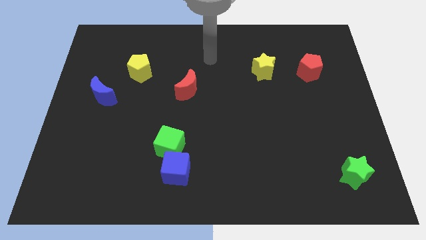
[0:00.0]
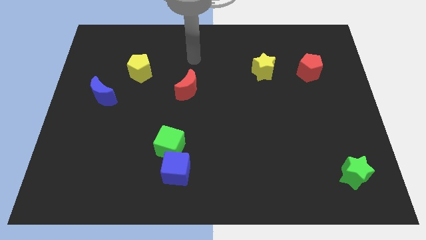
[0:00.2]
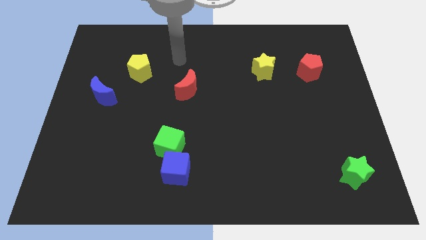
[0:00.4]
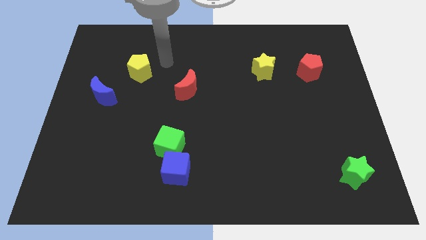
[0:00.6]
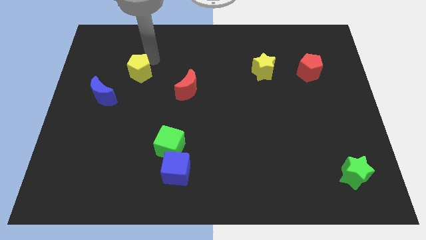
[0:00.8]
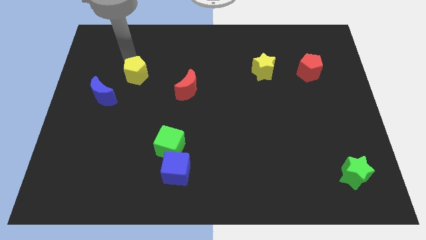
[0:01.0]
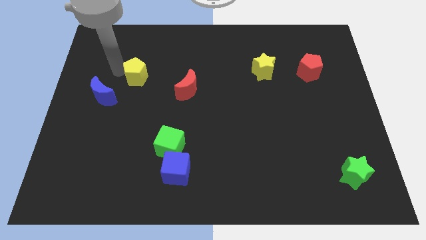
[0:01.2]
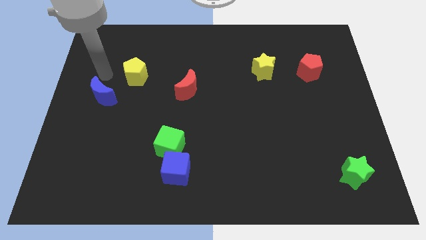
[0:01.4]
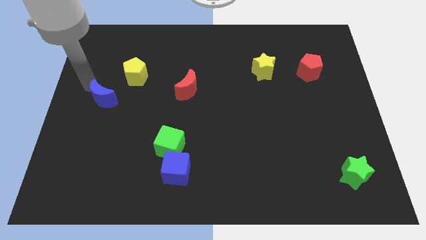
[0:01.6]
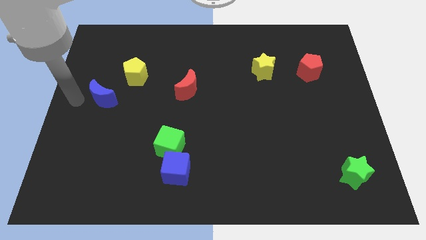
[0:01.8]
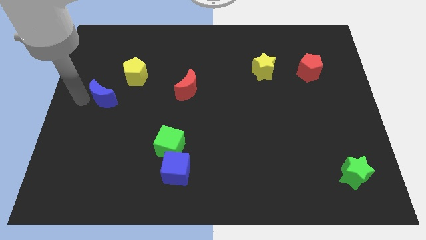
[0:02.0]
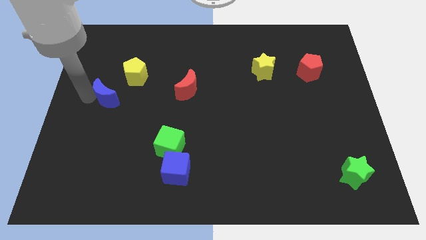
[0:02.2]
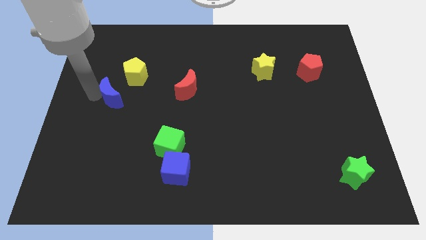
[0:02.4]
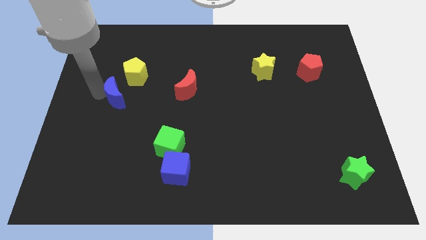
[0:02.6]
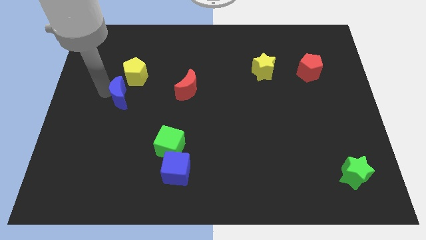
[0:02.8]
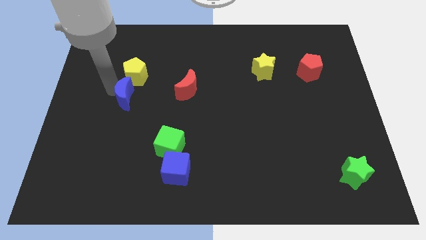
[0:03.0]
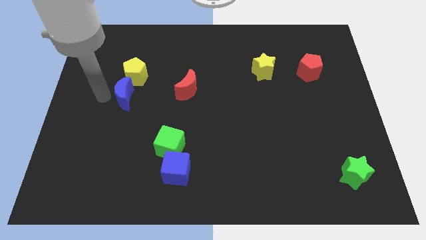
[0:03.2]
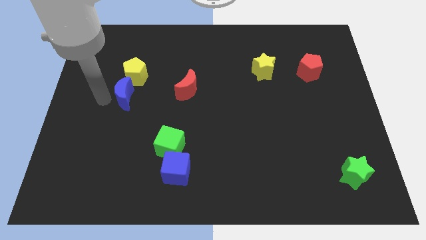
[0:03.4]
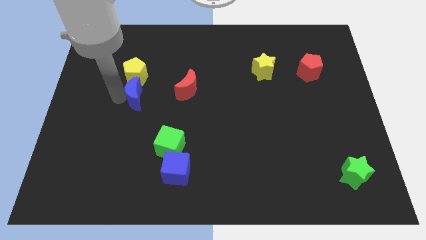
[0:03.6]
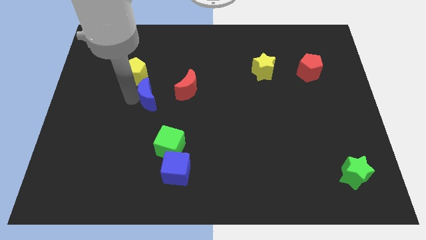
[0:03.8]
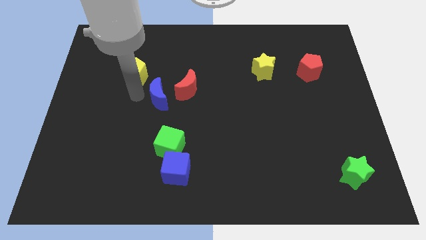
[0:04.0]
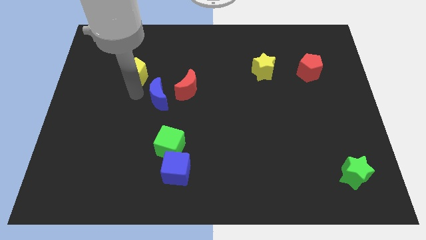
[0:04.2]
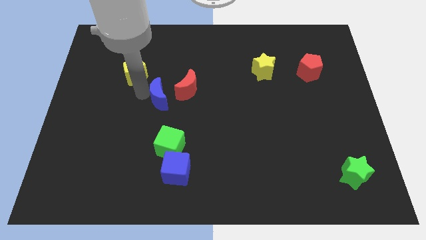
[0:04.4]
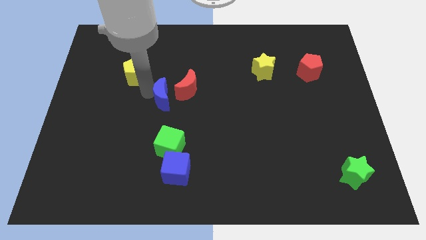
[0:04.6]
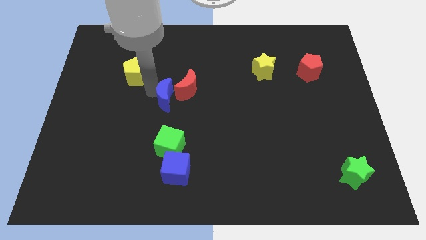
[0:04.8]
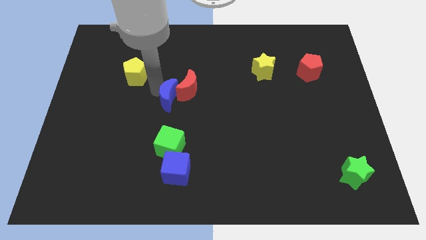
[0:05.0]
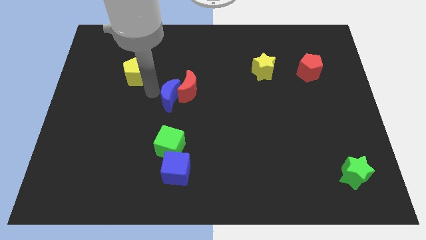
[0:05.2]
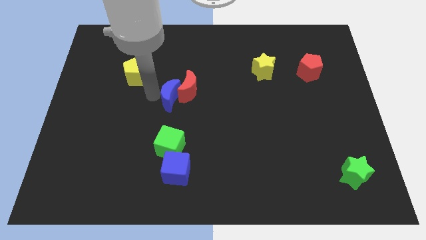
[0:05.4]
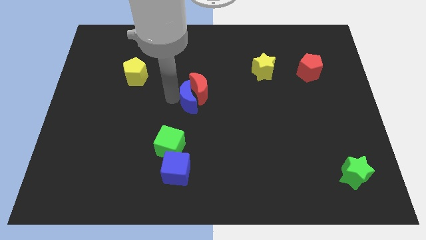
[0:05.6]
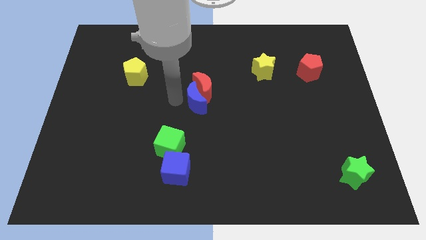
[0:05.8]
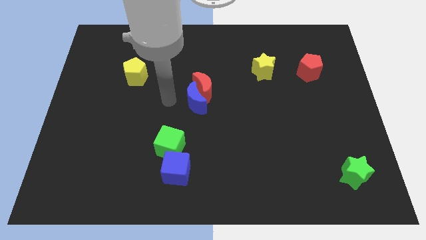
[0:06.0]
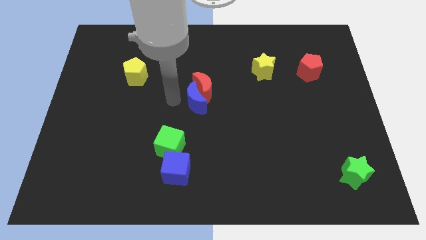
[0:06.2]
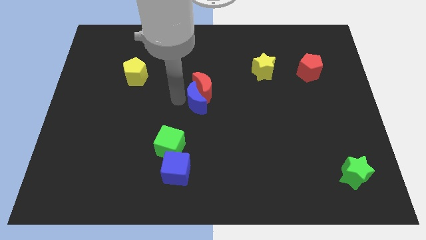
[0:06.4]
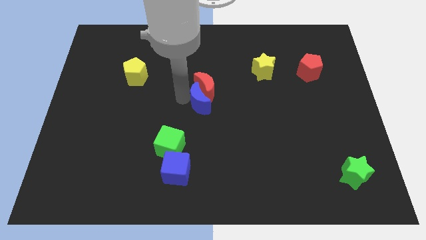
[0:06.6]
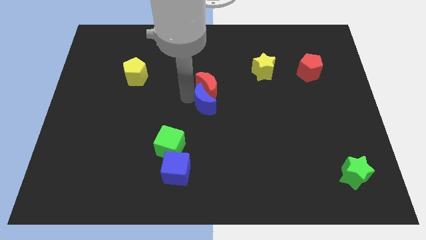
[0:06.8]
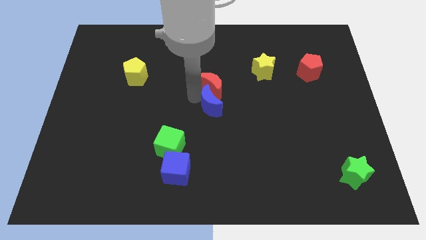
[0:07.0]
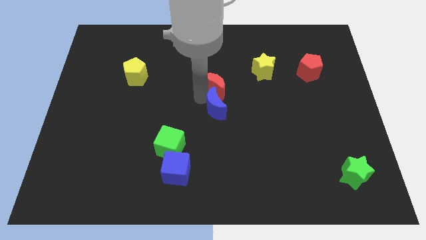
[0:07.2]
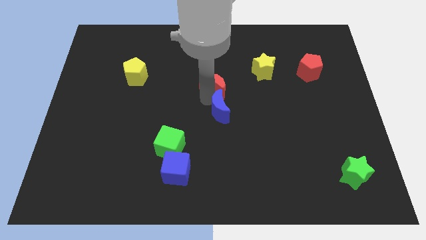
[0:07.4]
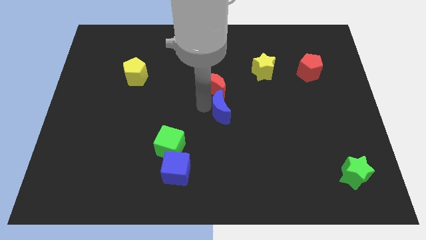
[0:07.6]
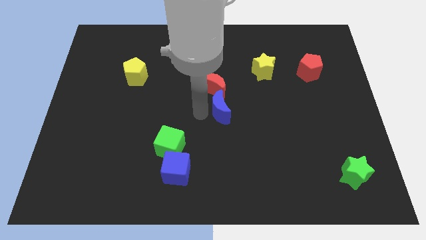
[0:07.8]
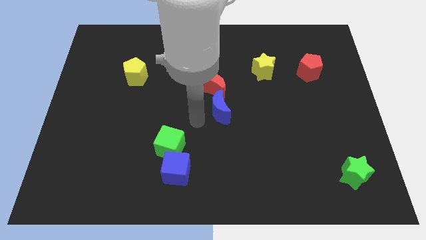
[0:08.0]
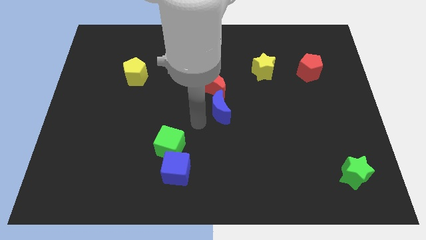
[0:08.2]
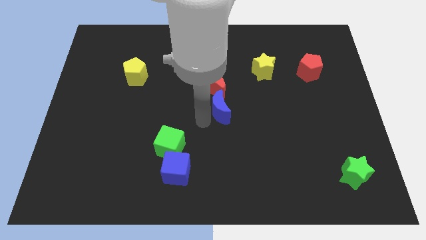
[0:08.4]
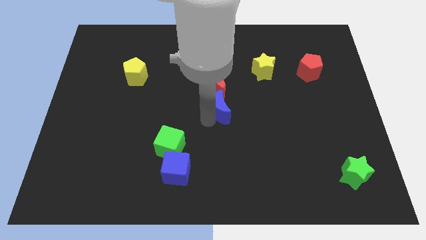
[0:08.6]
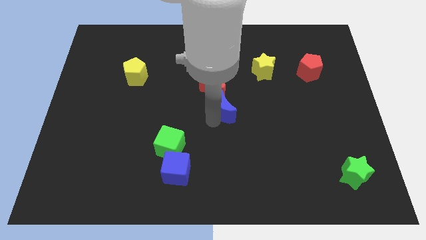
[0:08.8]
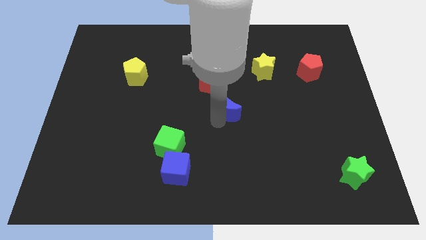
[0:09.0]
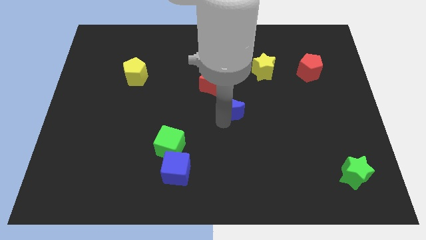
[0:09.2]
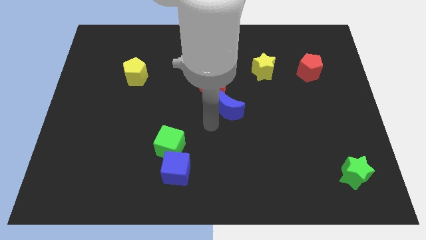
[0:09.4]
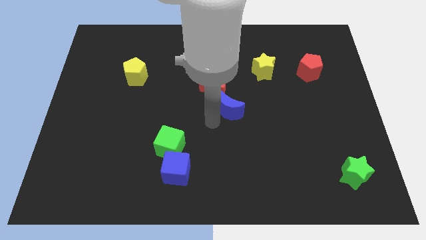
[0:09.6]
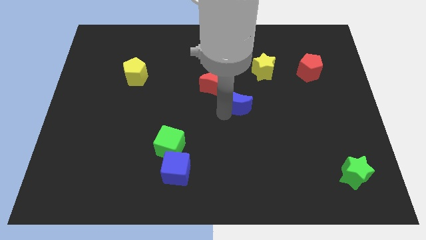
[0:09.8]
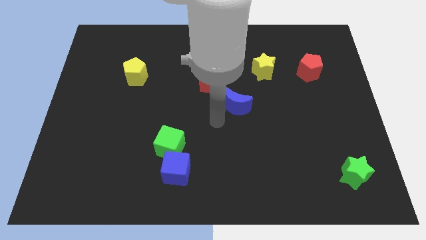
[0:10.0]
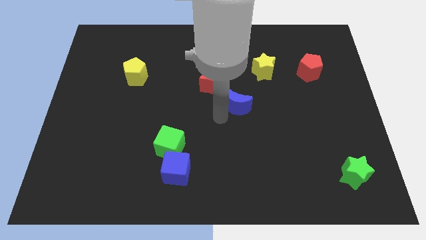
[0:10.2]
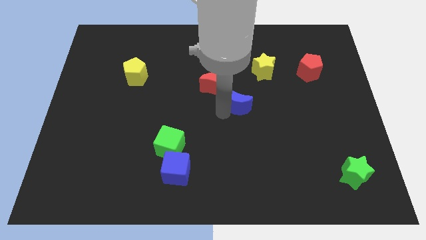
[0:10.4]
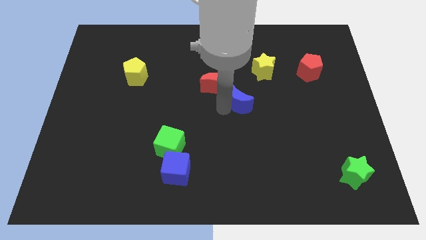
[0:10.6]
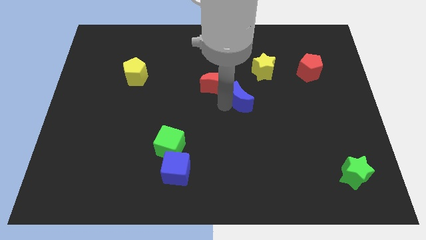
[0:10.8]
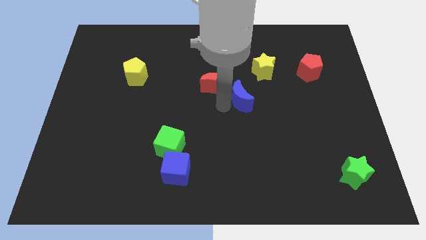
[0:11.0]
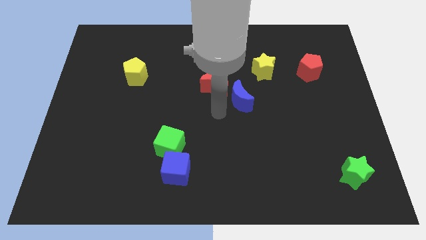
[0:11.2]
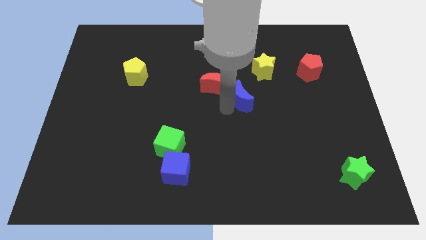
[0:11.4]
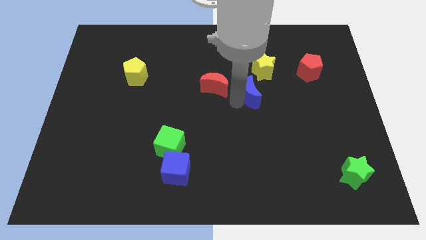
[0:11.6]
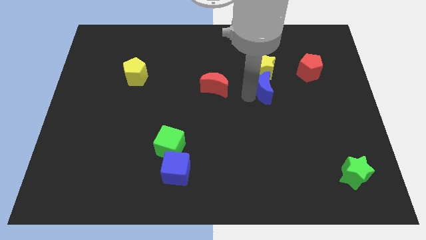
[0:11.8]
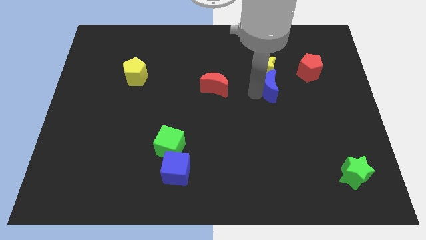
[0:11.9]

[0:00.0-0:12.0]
put the blue moon to the bottom right side of the yellow star
